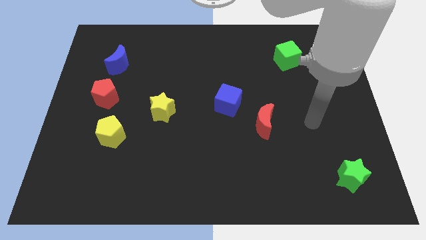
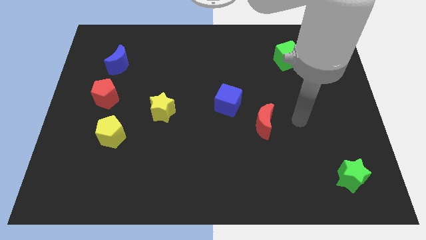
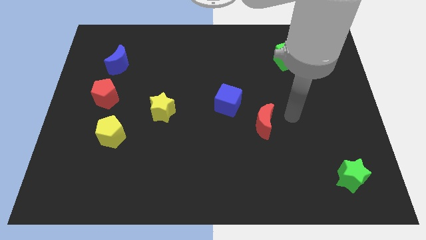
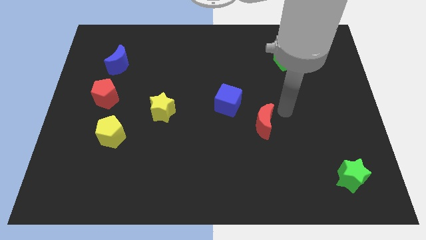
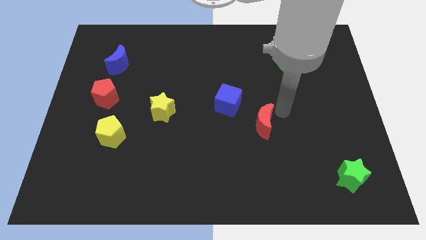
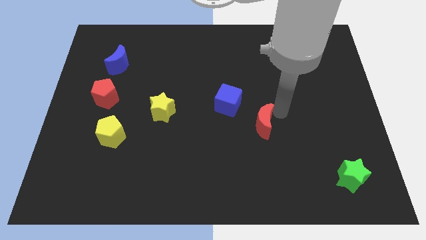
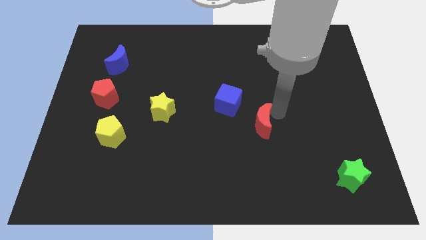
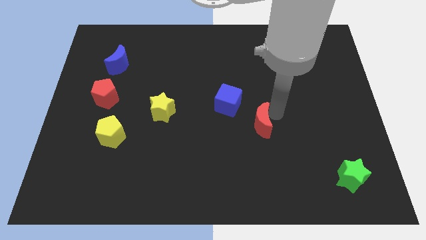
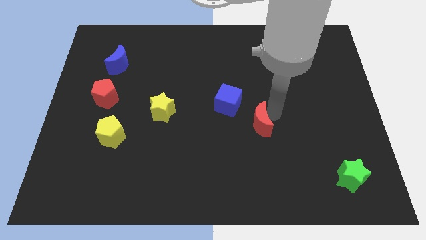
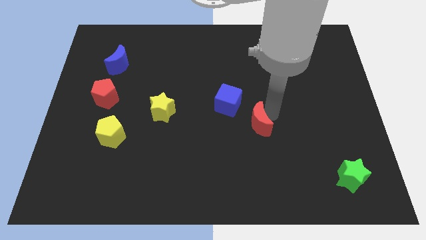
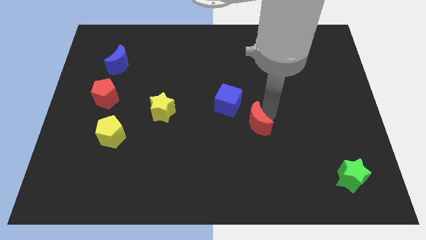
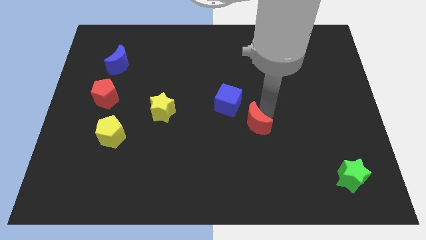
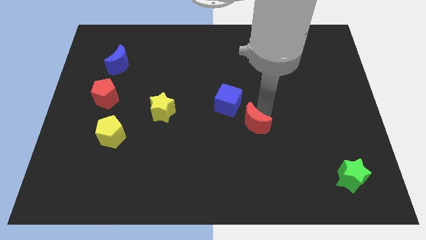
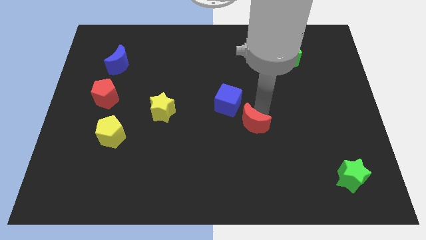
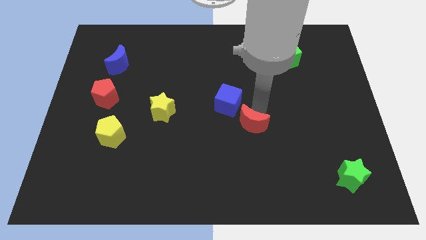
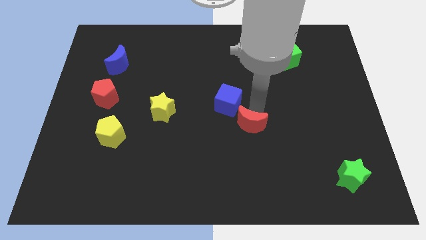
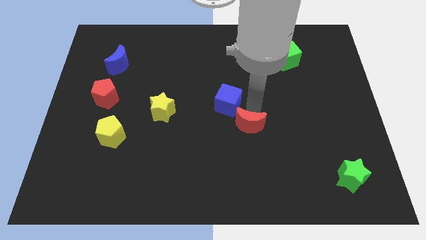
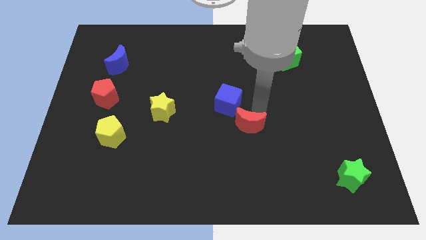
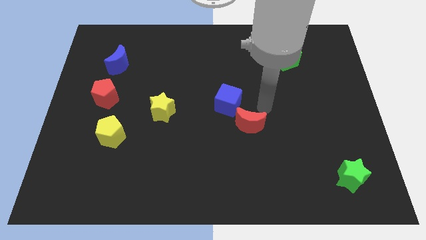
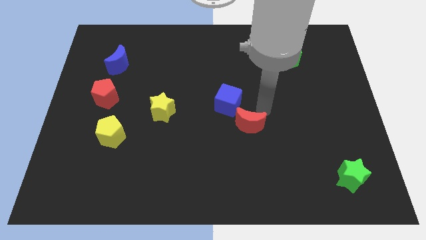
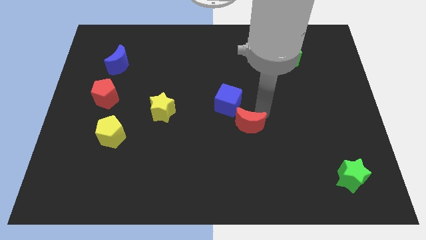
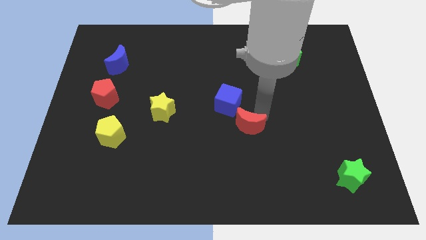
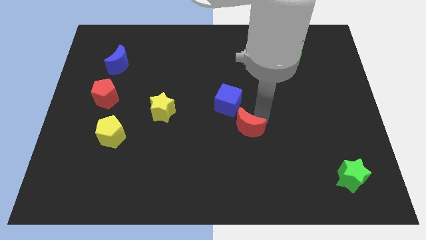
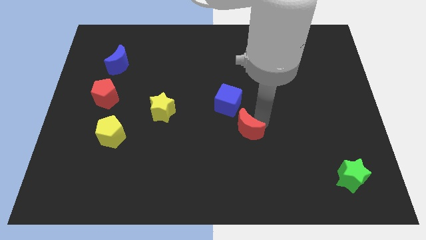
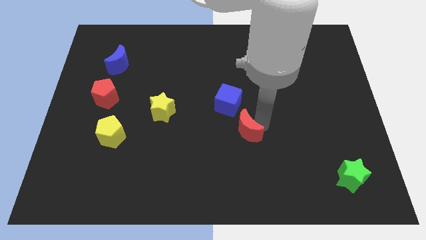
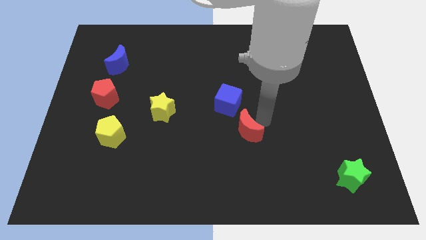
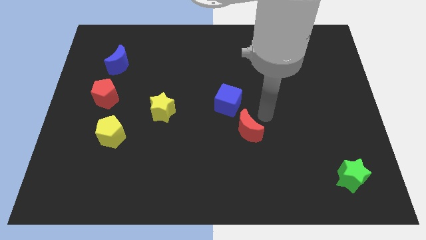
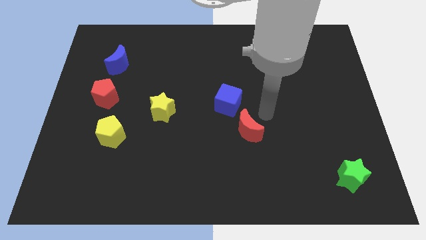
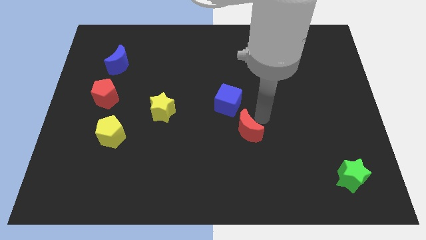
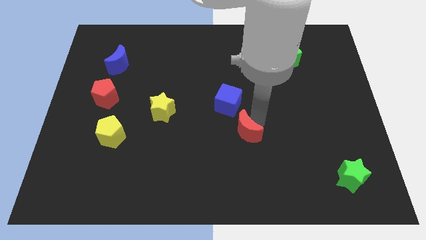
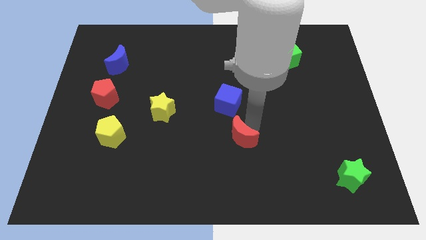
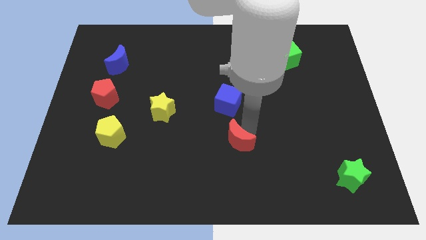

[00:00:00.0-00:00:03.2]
move the red moon slightly down and left diagonally

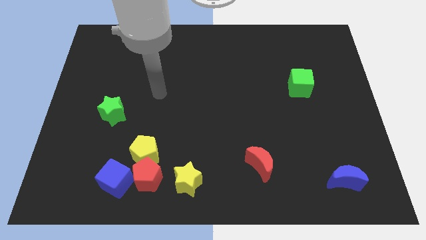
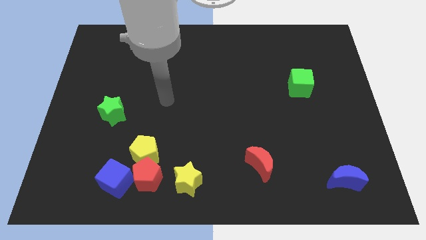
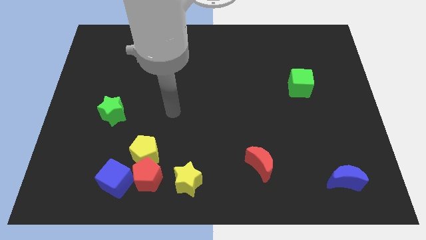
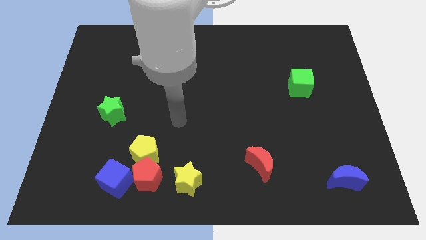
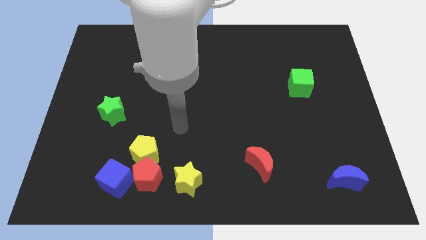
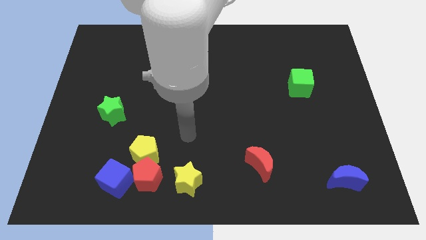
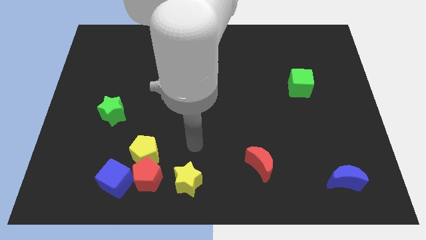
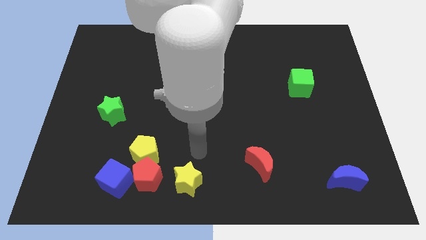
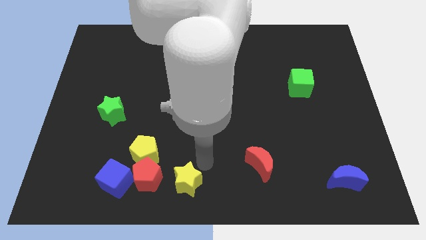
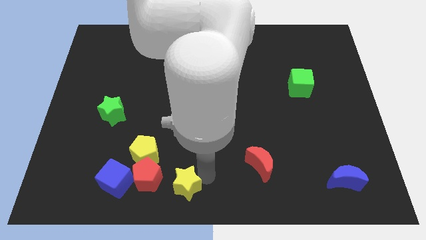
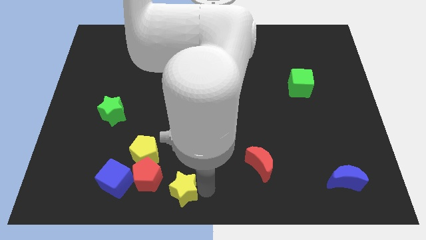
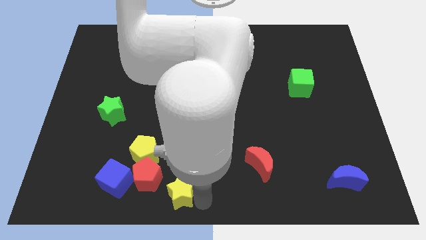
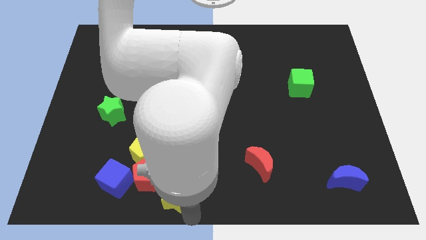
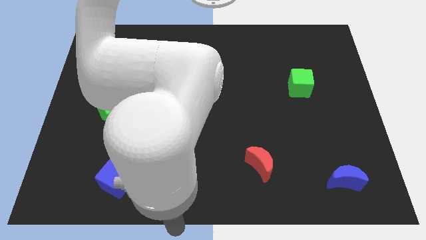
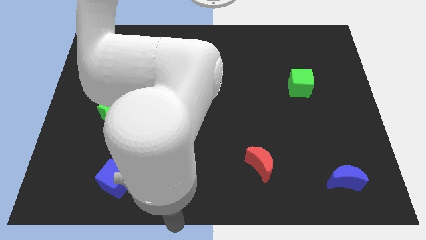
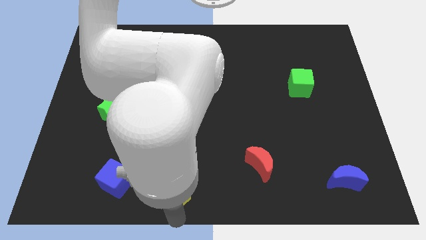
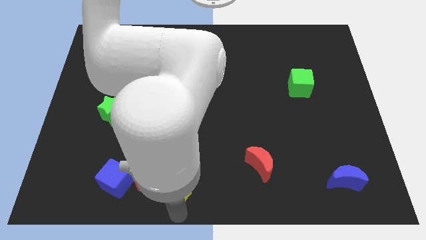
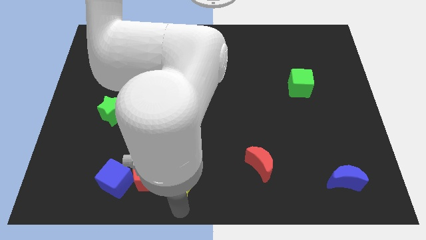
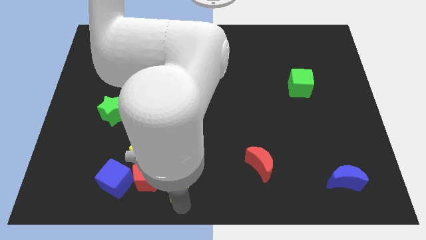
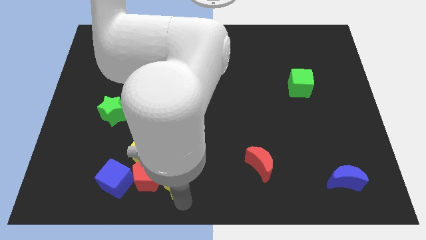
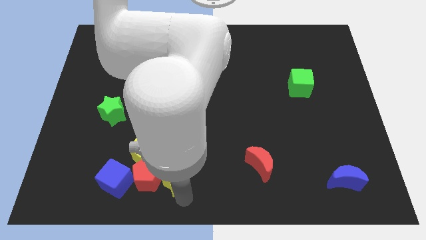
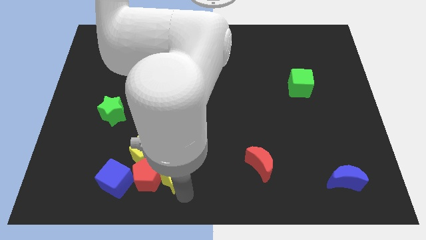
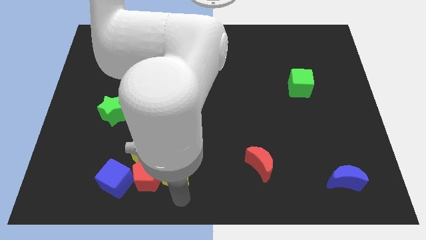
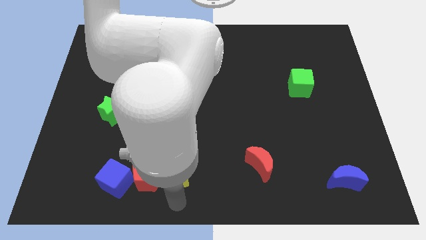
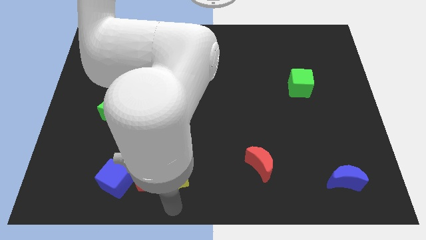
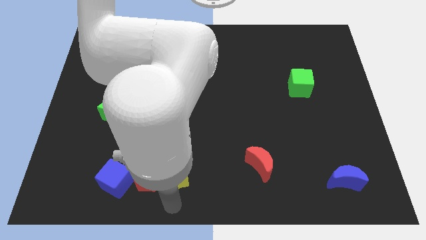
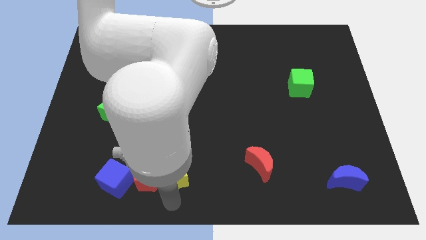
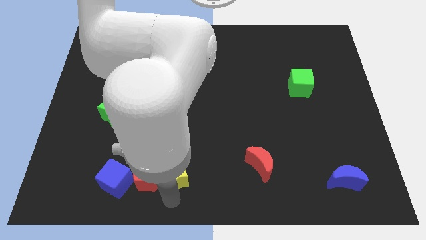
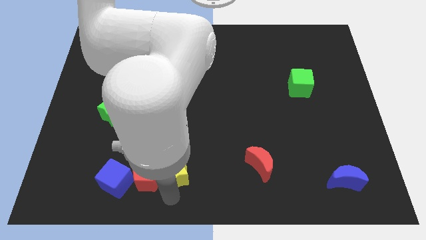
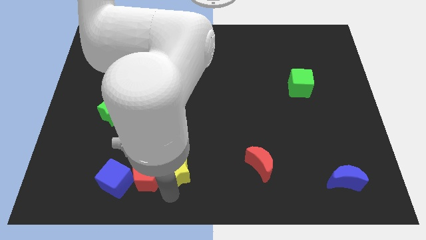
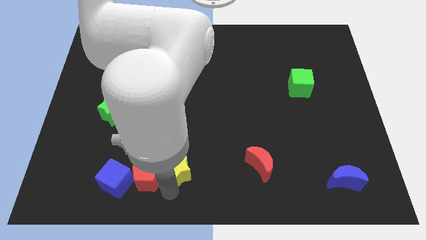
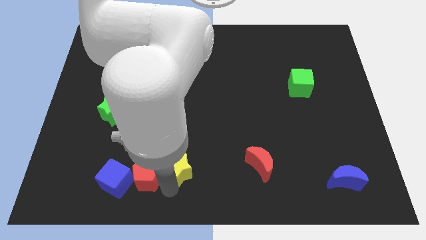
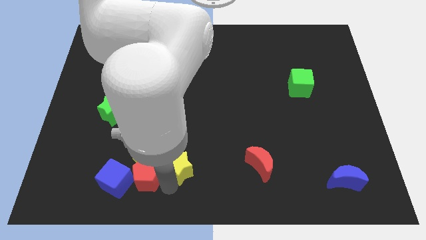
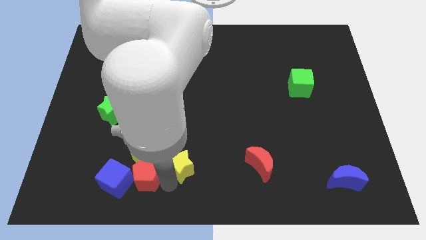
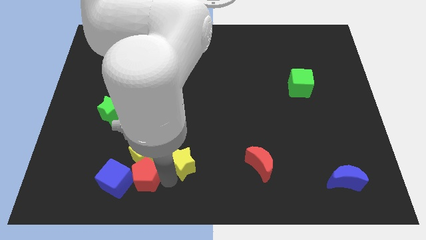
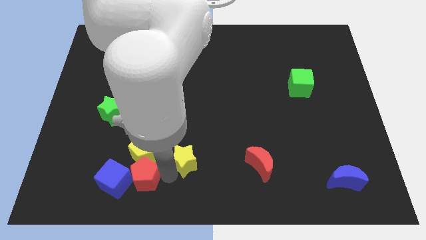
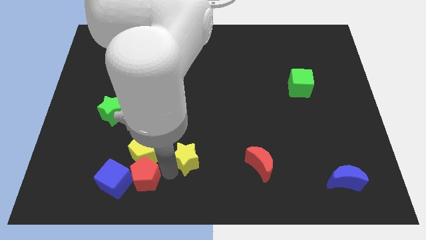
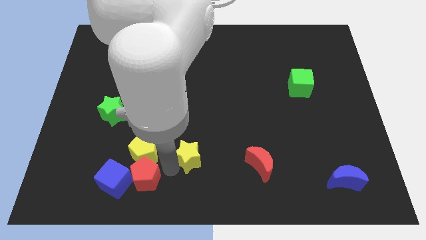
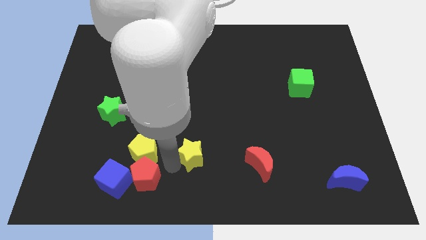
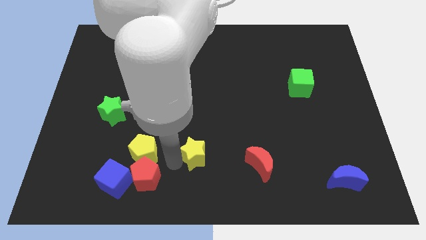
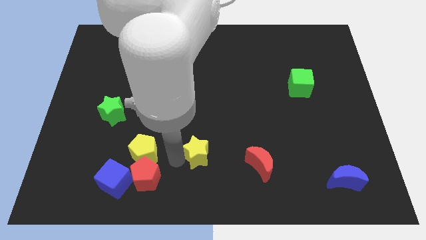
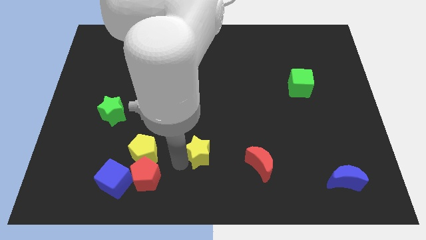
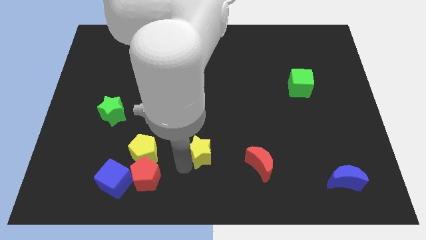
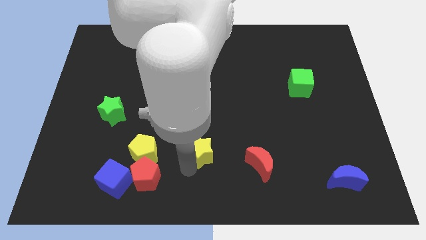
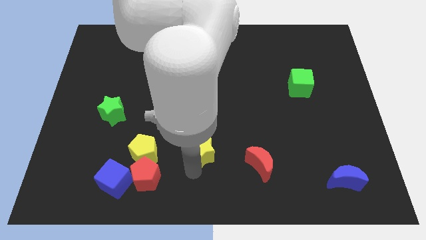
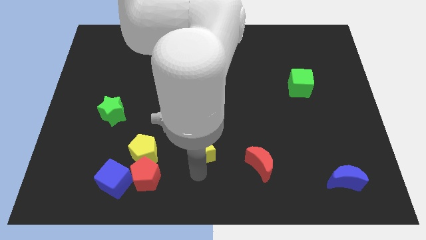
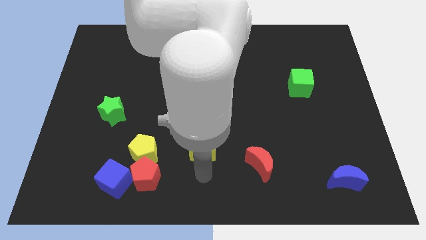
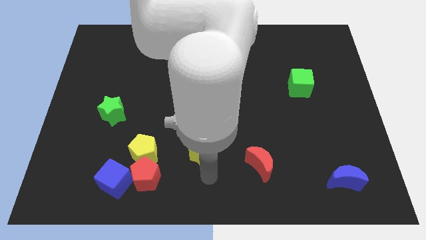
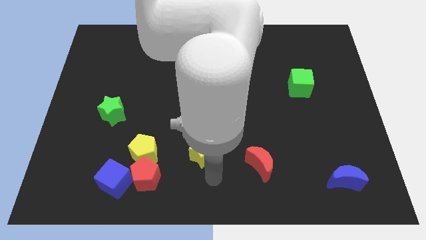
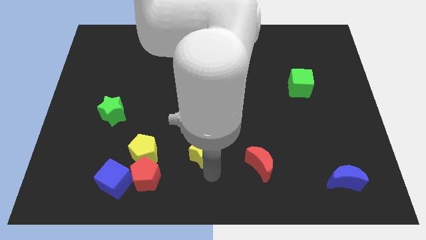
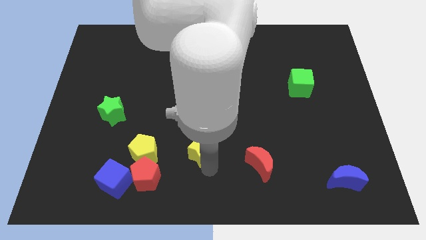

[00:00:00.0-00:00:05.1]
push the yellow star upwards slightly
